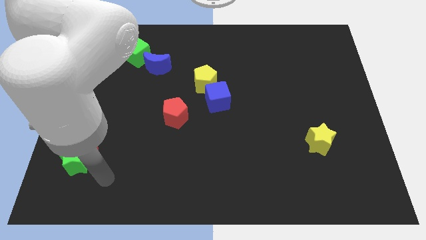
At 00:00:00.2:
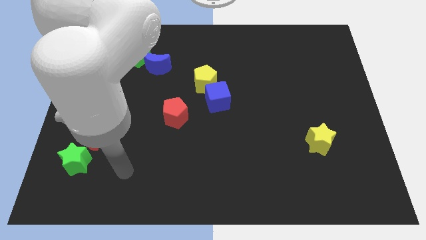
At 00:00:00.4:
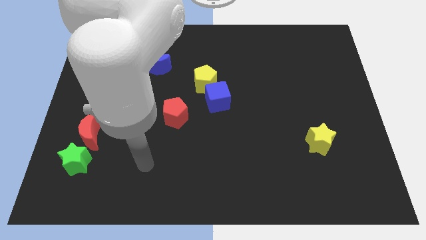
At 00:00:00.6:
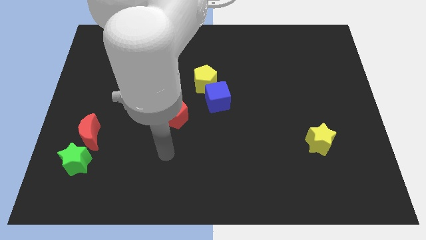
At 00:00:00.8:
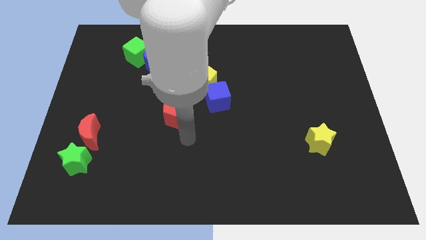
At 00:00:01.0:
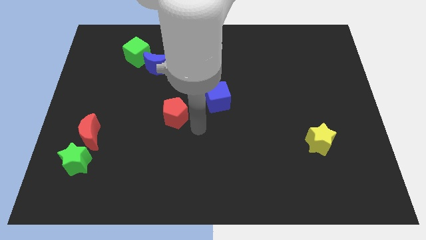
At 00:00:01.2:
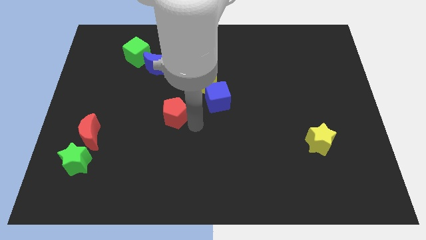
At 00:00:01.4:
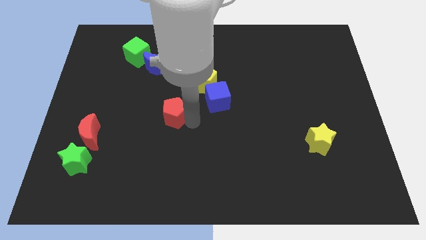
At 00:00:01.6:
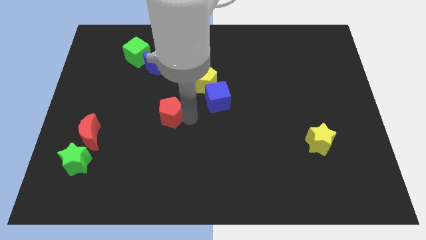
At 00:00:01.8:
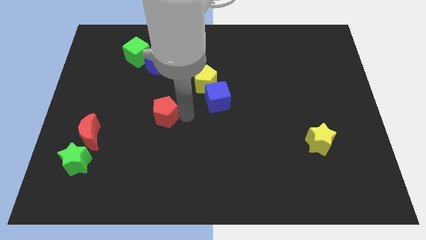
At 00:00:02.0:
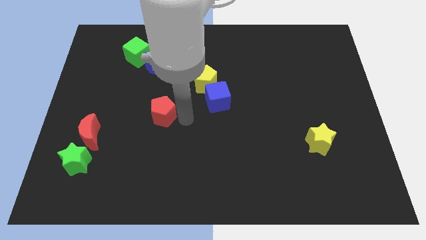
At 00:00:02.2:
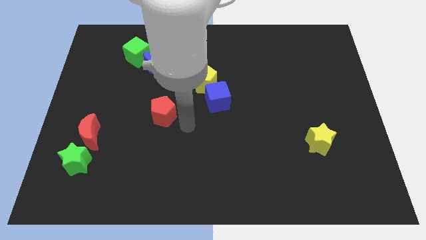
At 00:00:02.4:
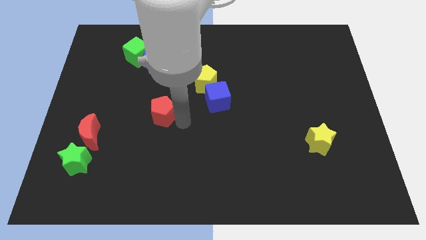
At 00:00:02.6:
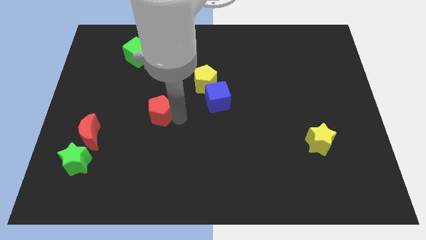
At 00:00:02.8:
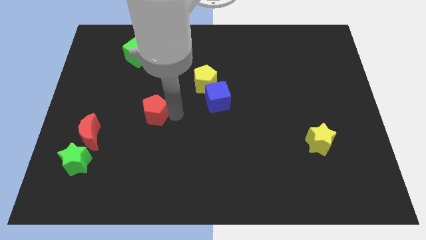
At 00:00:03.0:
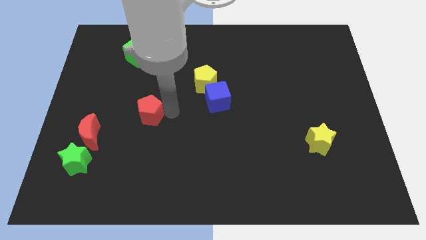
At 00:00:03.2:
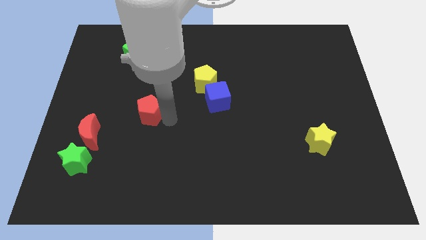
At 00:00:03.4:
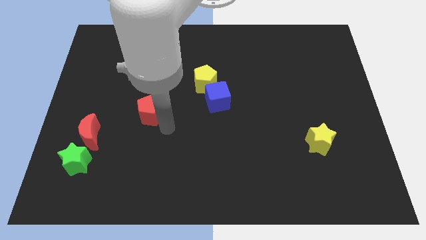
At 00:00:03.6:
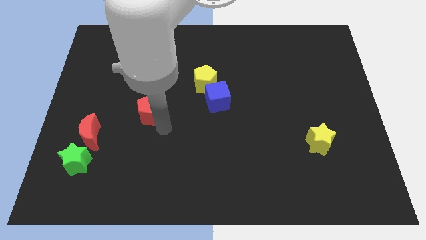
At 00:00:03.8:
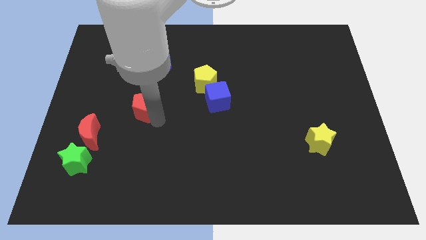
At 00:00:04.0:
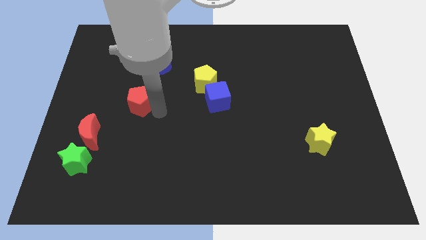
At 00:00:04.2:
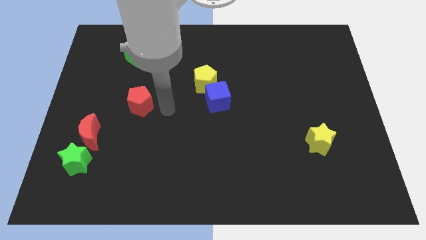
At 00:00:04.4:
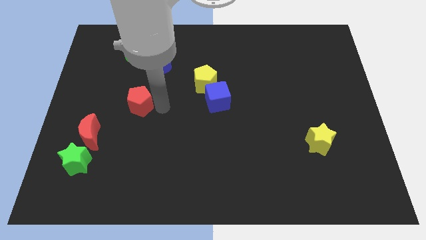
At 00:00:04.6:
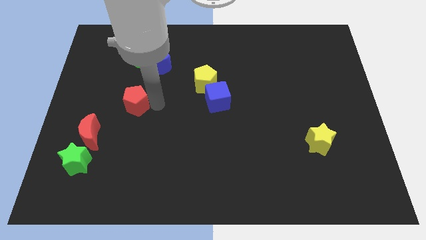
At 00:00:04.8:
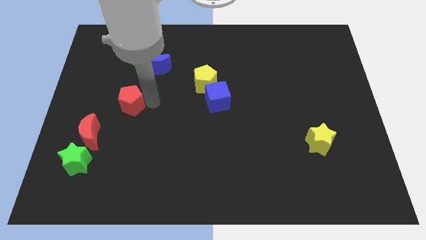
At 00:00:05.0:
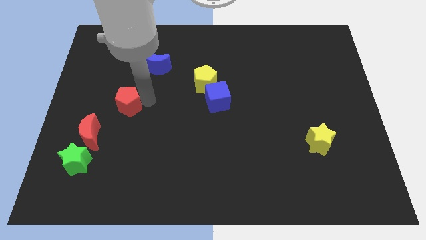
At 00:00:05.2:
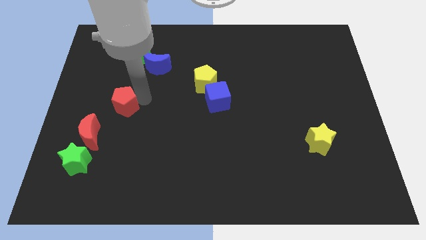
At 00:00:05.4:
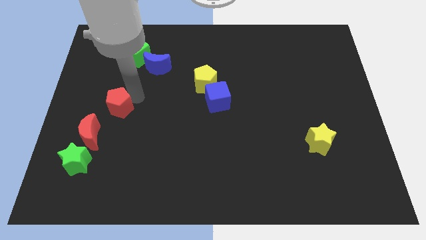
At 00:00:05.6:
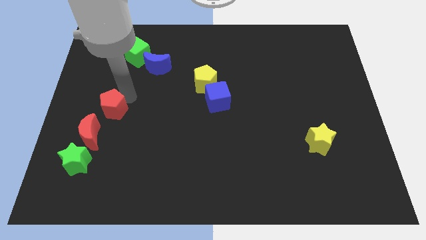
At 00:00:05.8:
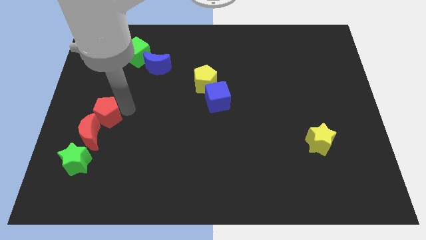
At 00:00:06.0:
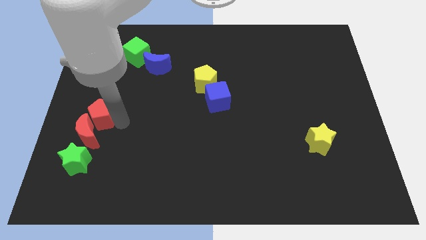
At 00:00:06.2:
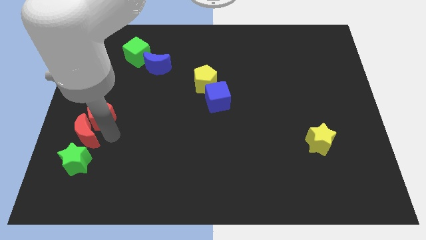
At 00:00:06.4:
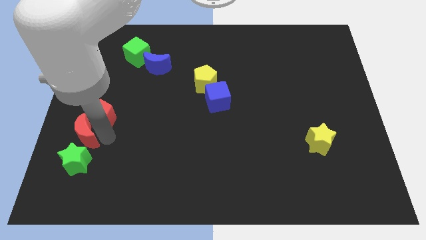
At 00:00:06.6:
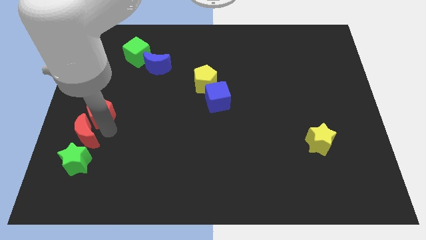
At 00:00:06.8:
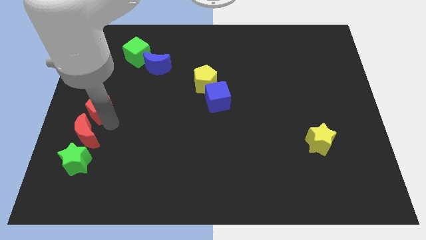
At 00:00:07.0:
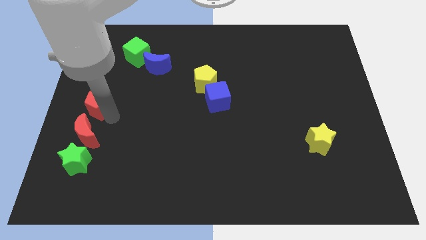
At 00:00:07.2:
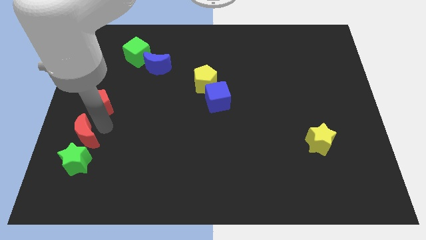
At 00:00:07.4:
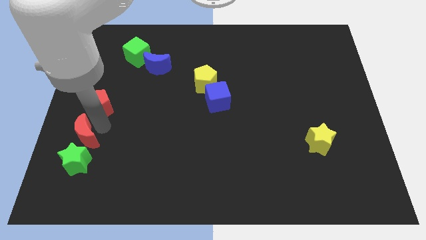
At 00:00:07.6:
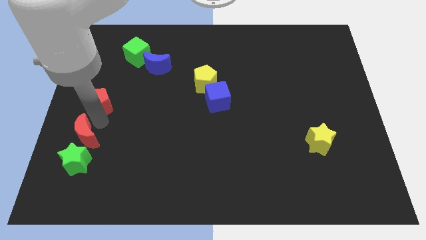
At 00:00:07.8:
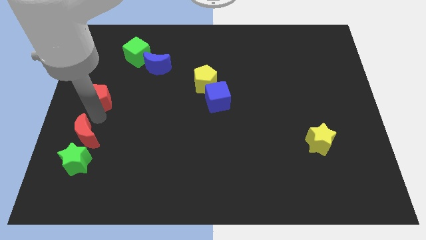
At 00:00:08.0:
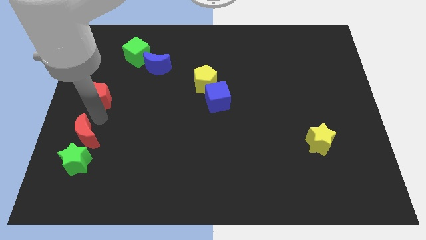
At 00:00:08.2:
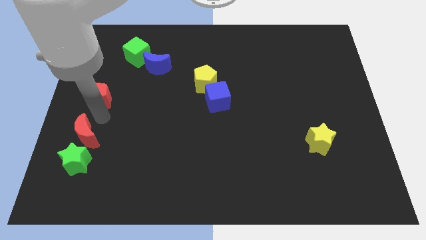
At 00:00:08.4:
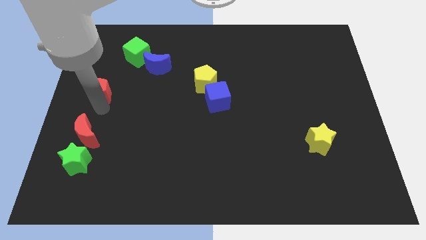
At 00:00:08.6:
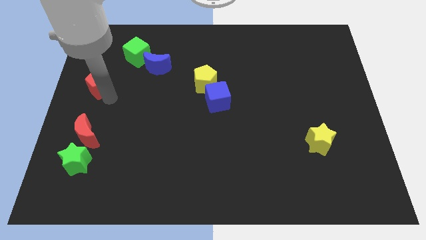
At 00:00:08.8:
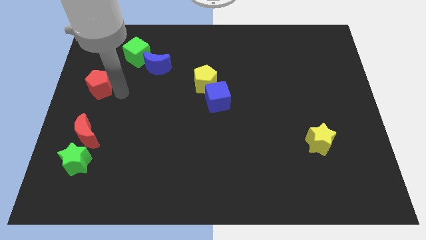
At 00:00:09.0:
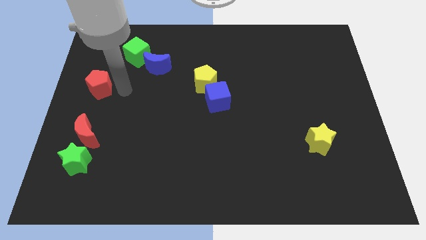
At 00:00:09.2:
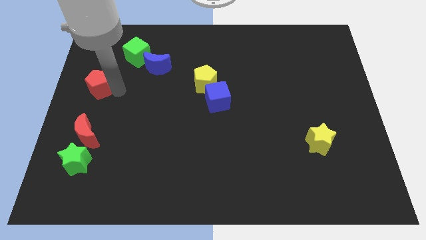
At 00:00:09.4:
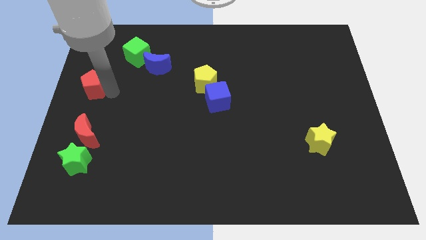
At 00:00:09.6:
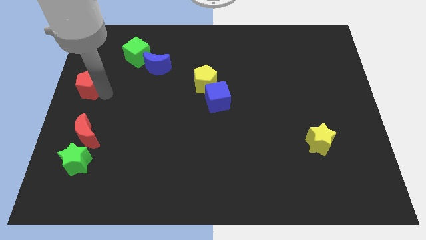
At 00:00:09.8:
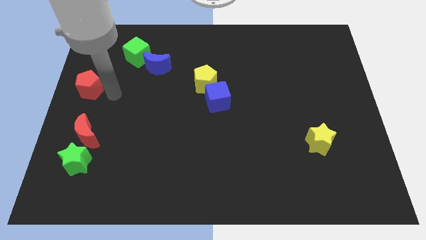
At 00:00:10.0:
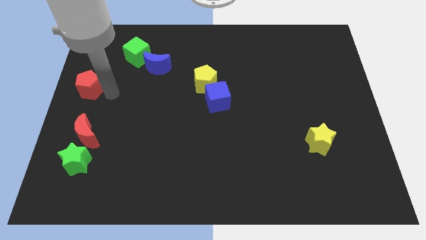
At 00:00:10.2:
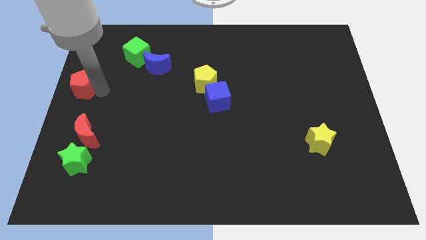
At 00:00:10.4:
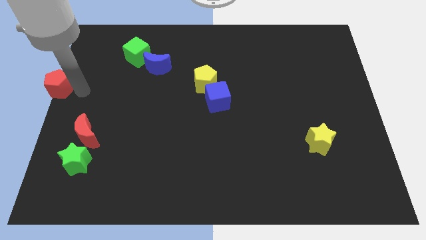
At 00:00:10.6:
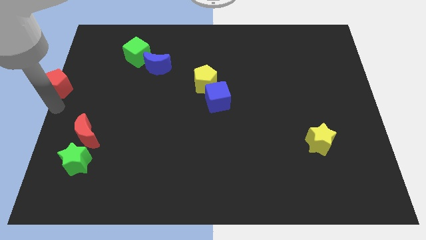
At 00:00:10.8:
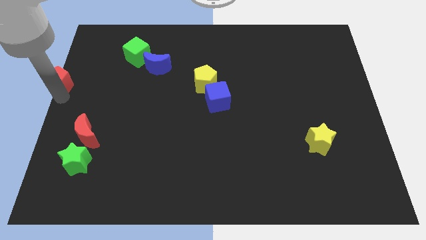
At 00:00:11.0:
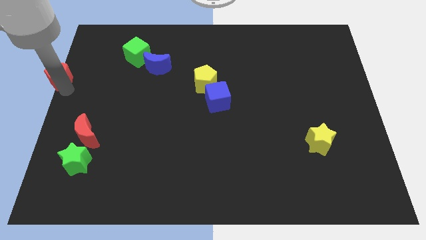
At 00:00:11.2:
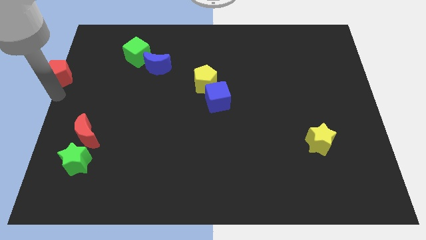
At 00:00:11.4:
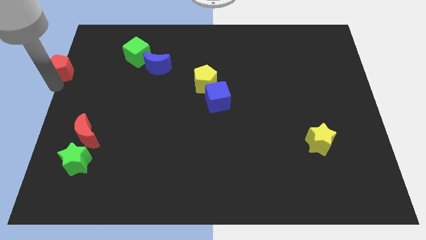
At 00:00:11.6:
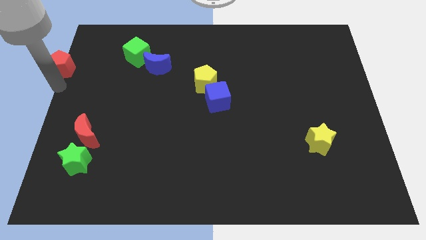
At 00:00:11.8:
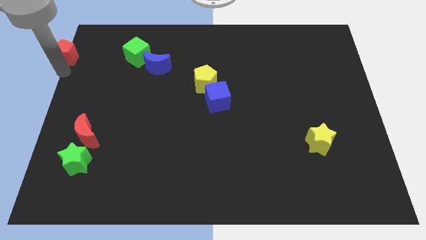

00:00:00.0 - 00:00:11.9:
put the red pentagon to the upper left corner
